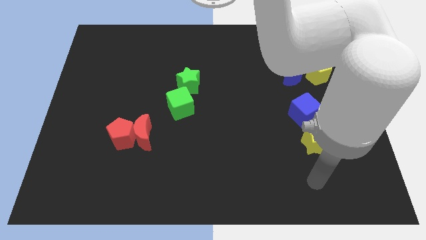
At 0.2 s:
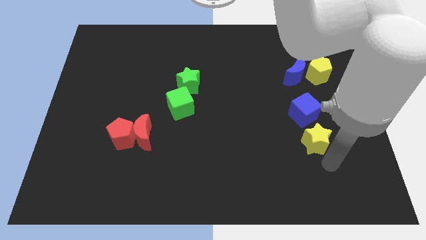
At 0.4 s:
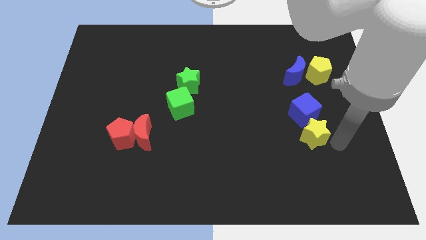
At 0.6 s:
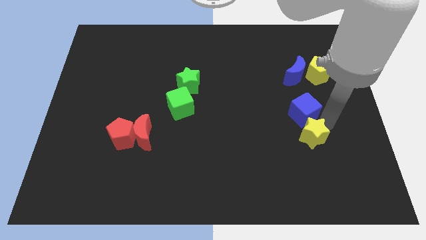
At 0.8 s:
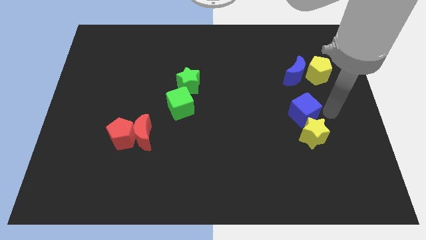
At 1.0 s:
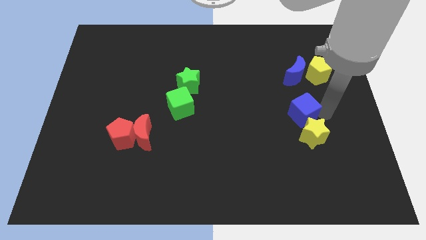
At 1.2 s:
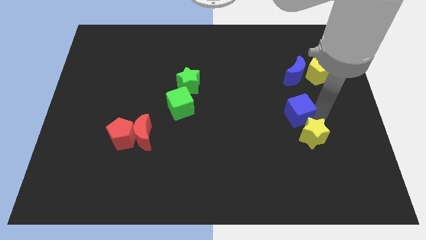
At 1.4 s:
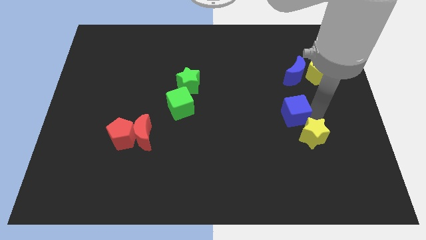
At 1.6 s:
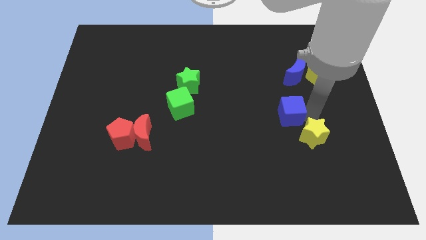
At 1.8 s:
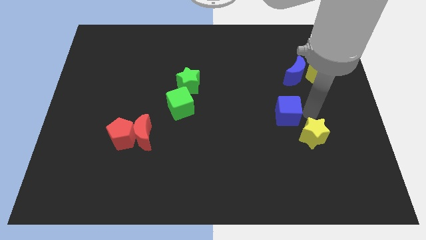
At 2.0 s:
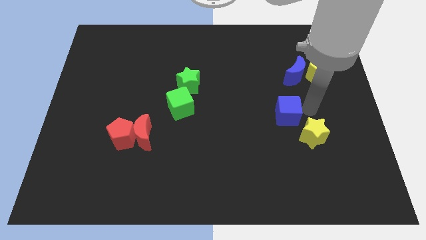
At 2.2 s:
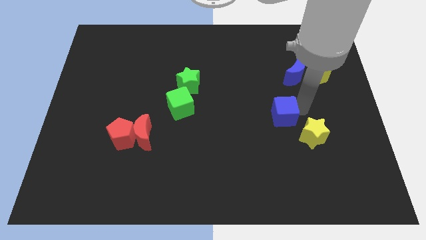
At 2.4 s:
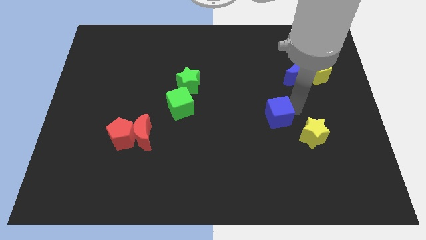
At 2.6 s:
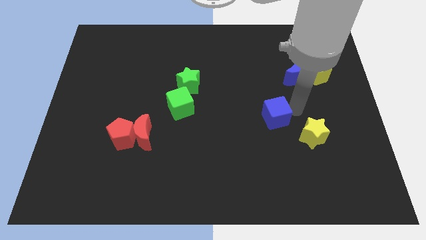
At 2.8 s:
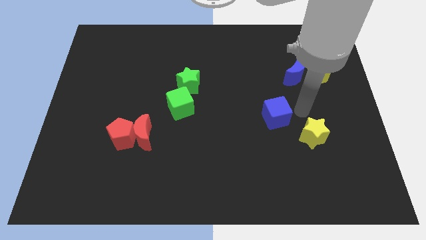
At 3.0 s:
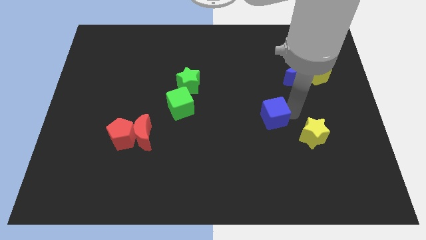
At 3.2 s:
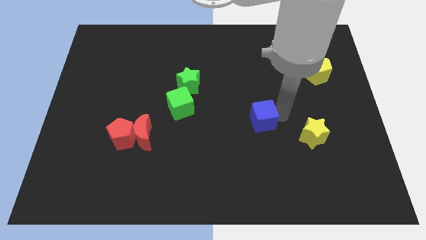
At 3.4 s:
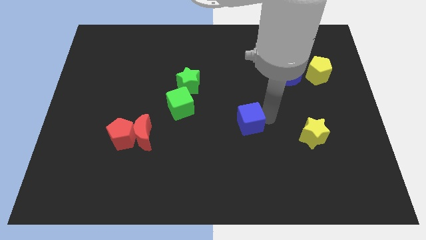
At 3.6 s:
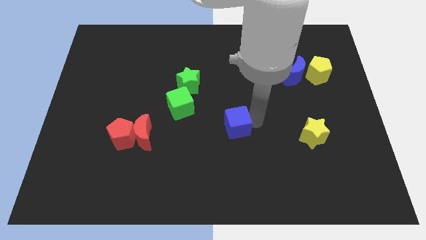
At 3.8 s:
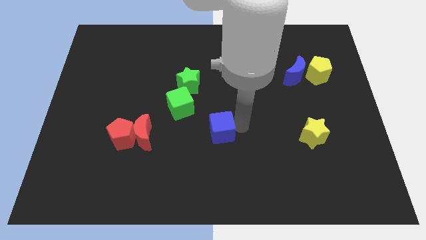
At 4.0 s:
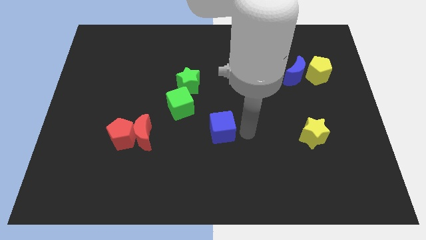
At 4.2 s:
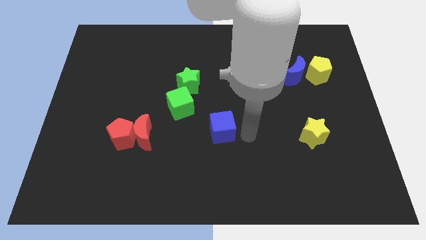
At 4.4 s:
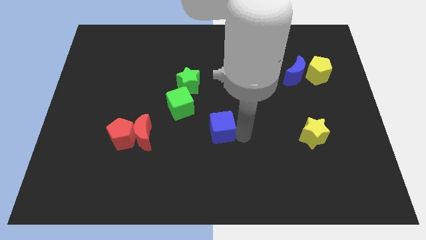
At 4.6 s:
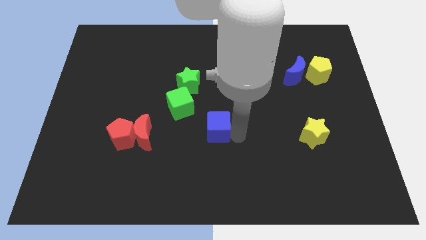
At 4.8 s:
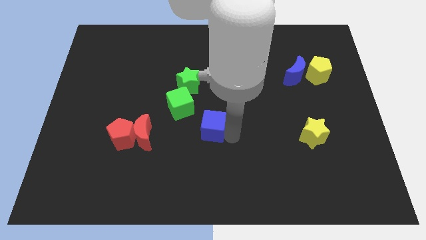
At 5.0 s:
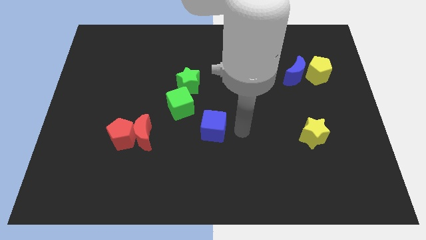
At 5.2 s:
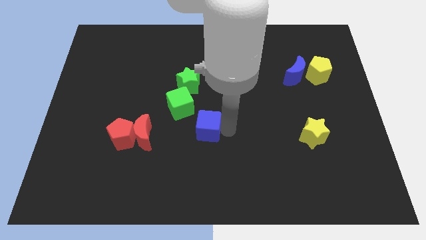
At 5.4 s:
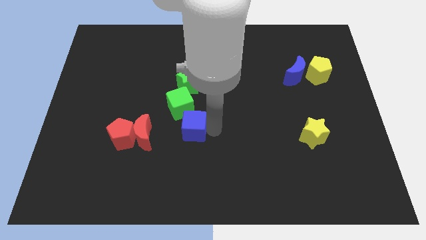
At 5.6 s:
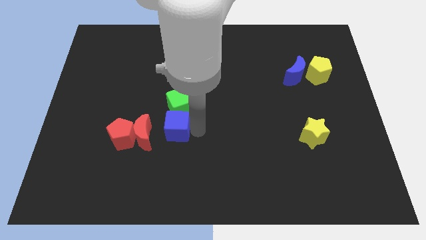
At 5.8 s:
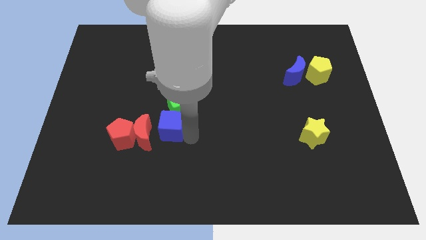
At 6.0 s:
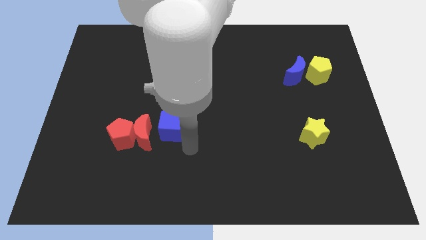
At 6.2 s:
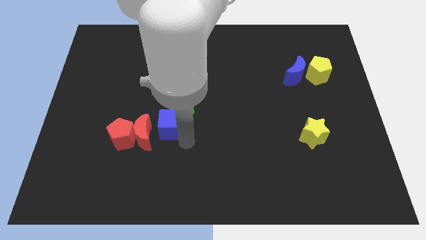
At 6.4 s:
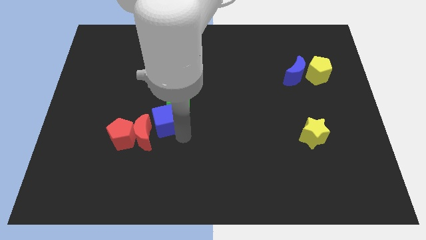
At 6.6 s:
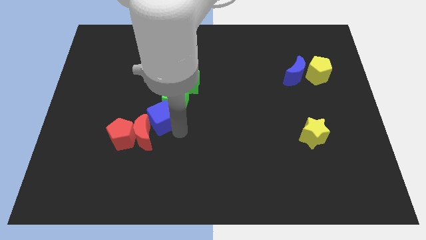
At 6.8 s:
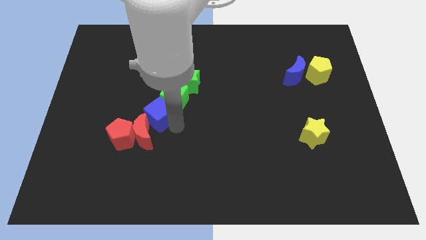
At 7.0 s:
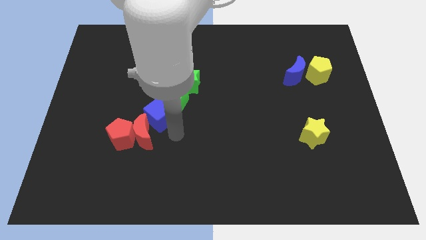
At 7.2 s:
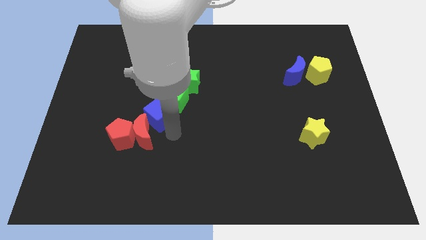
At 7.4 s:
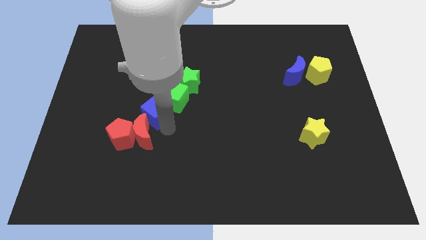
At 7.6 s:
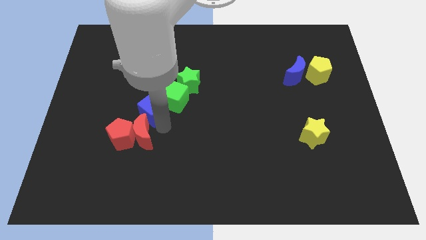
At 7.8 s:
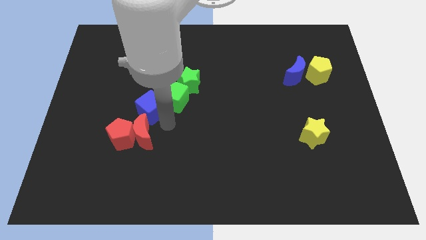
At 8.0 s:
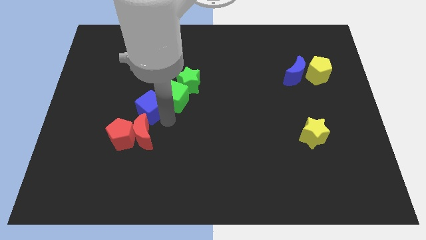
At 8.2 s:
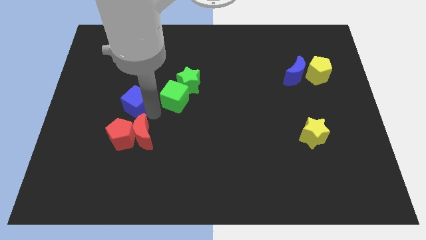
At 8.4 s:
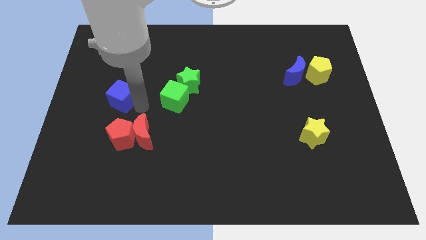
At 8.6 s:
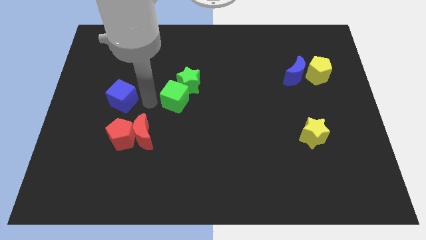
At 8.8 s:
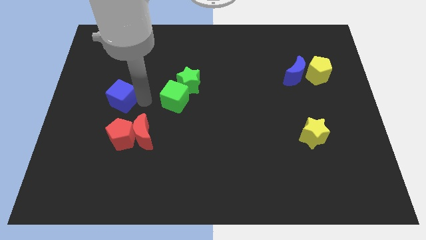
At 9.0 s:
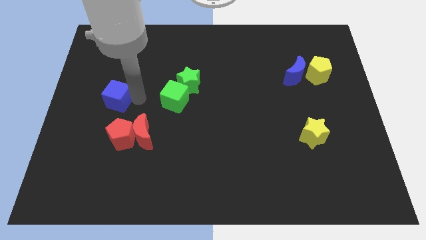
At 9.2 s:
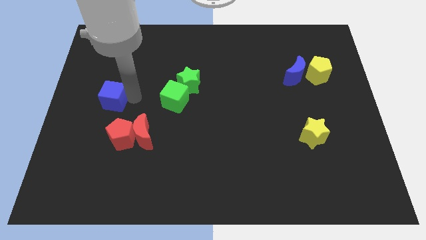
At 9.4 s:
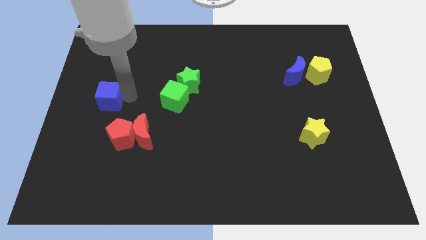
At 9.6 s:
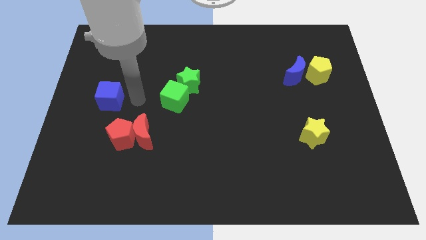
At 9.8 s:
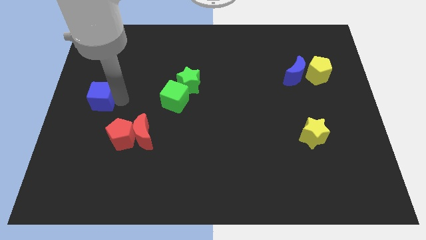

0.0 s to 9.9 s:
move the blue cube to the left side

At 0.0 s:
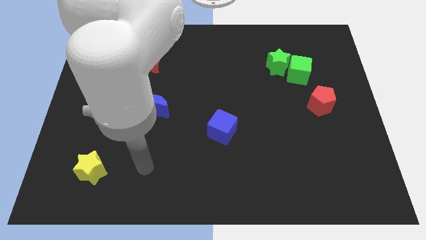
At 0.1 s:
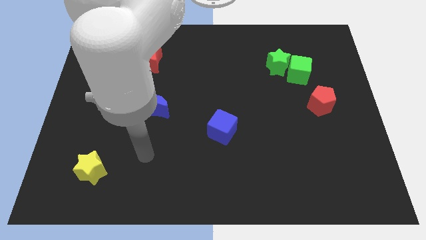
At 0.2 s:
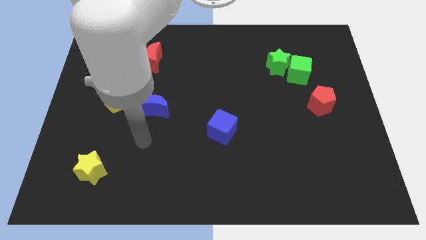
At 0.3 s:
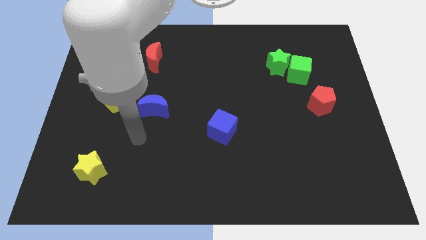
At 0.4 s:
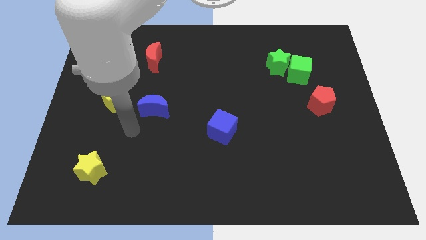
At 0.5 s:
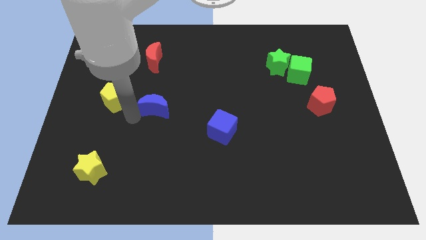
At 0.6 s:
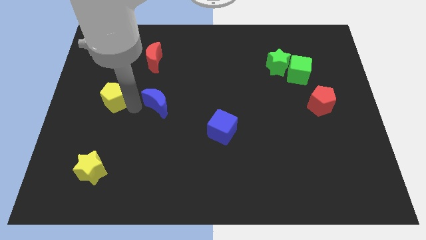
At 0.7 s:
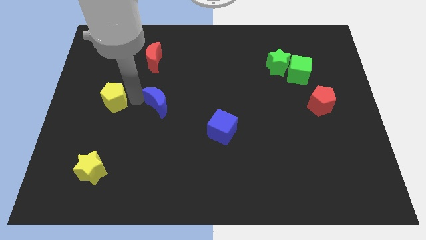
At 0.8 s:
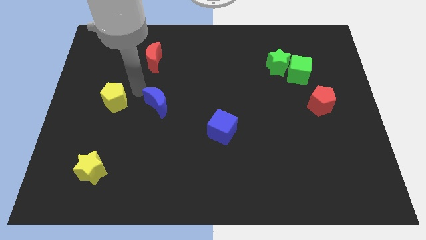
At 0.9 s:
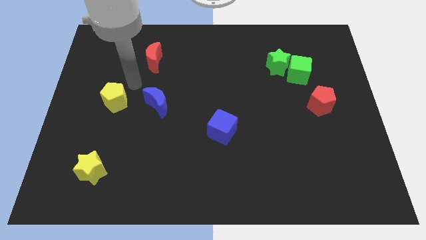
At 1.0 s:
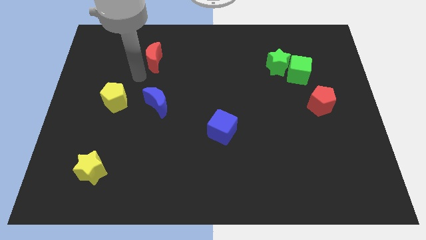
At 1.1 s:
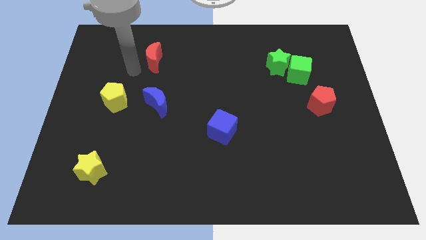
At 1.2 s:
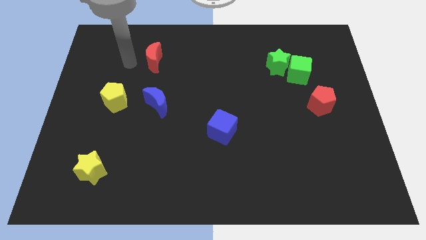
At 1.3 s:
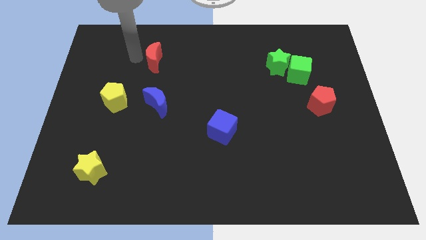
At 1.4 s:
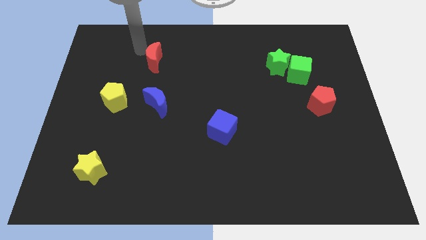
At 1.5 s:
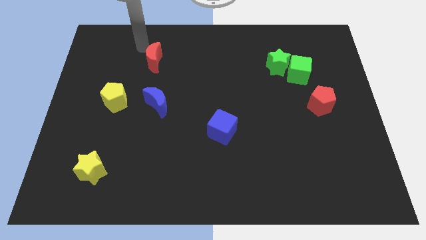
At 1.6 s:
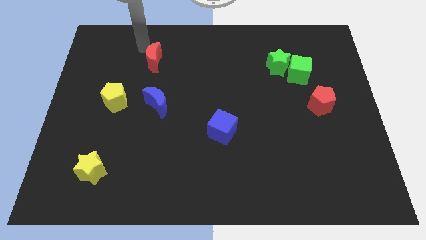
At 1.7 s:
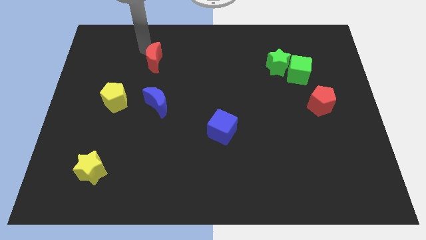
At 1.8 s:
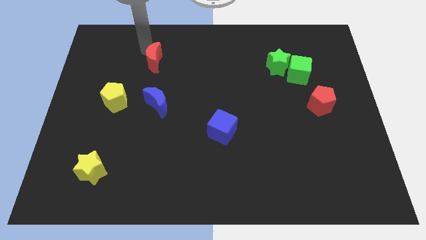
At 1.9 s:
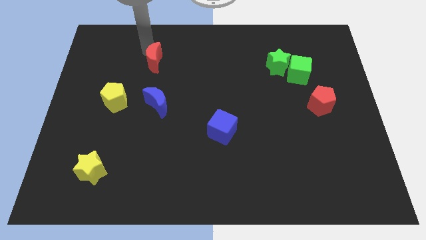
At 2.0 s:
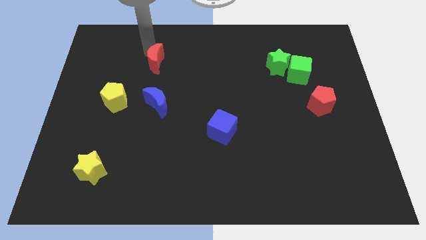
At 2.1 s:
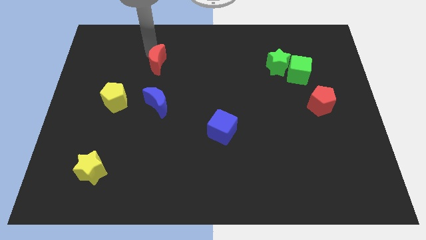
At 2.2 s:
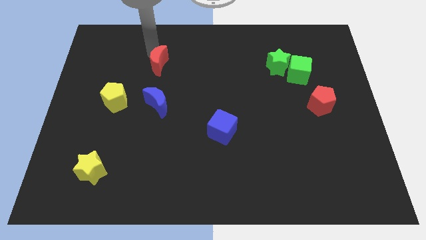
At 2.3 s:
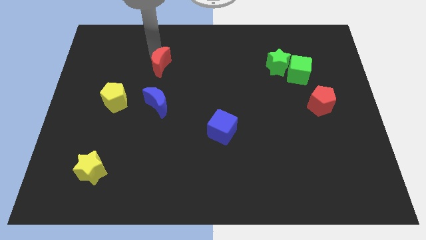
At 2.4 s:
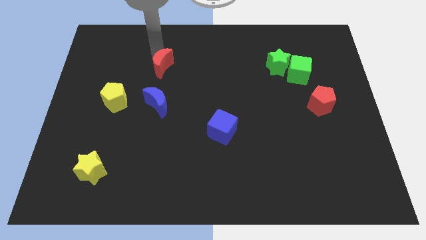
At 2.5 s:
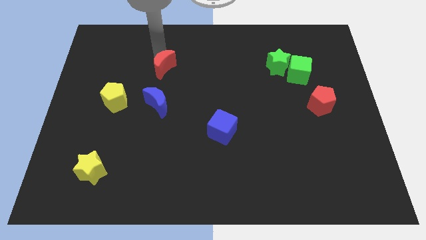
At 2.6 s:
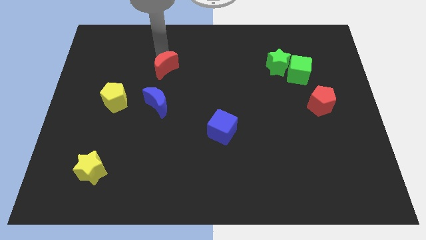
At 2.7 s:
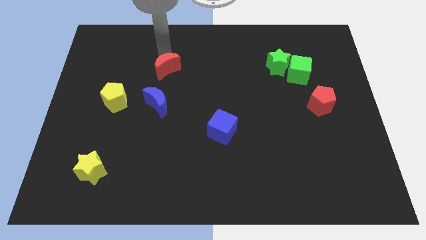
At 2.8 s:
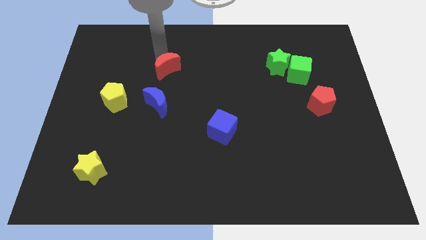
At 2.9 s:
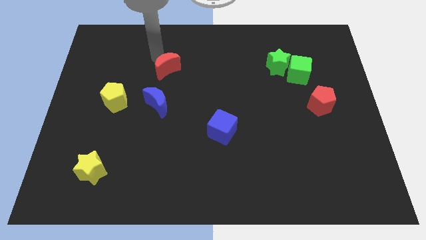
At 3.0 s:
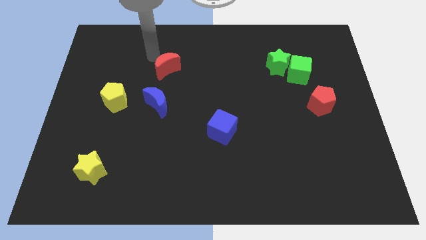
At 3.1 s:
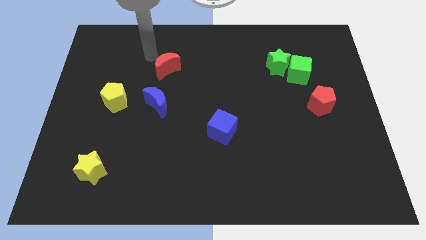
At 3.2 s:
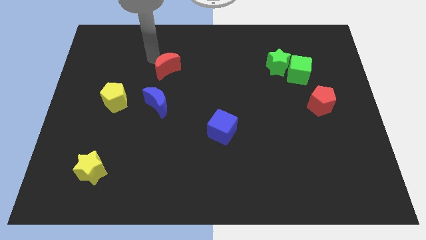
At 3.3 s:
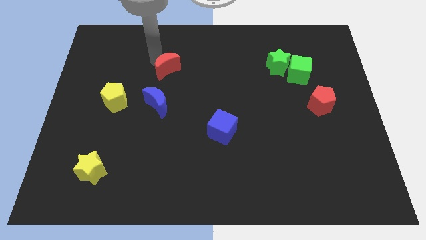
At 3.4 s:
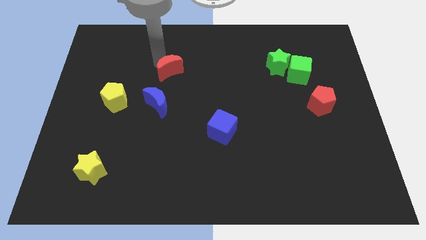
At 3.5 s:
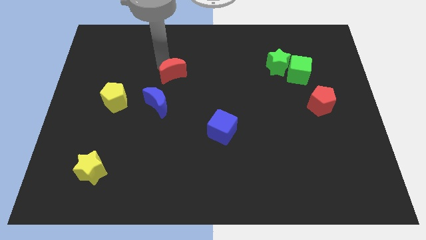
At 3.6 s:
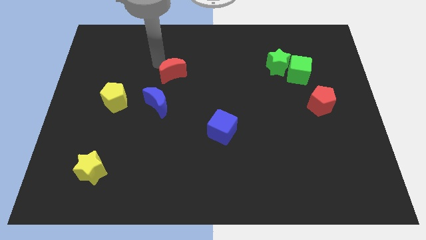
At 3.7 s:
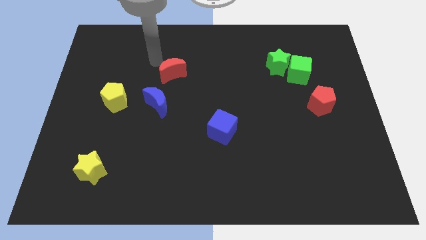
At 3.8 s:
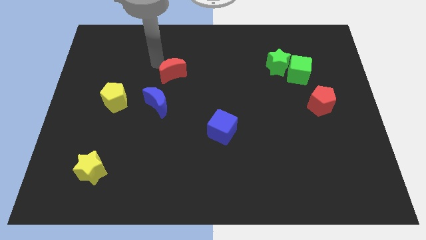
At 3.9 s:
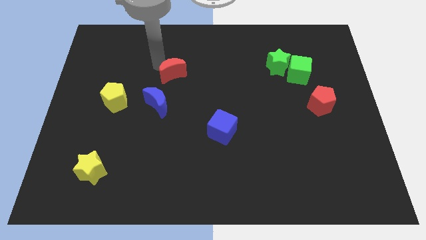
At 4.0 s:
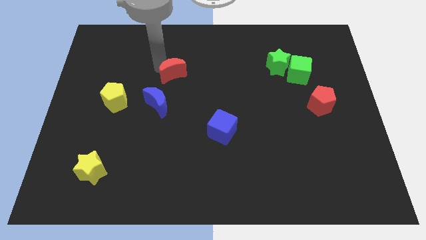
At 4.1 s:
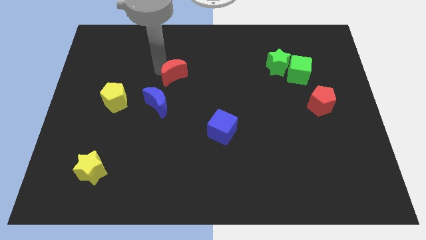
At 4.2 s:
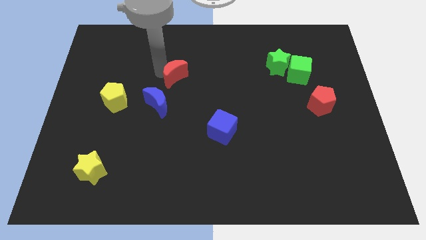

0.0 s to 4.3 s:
move the red moon to the middle
